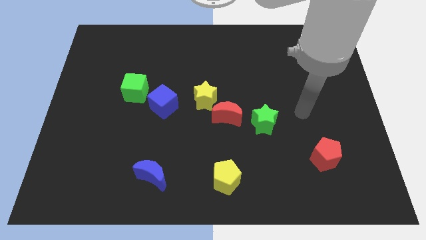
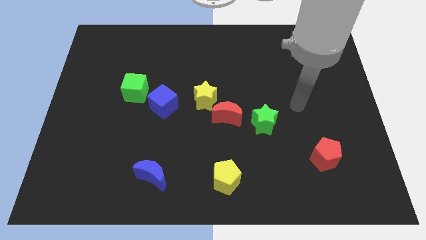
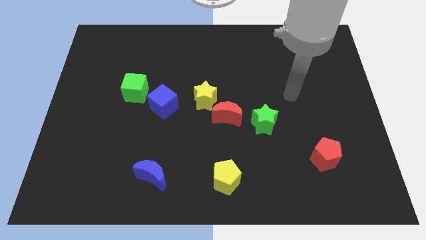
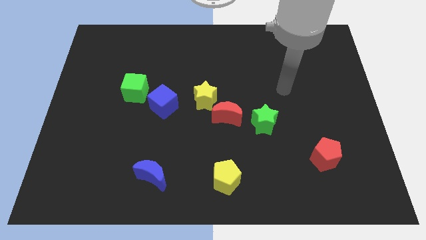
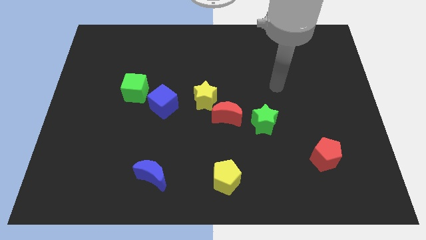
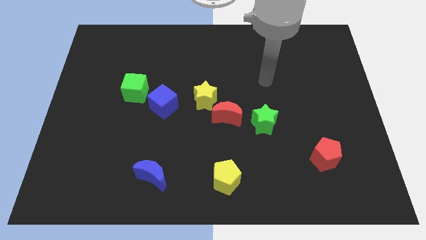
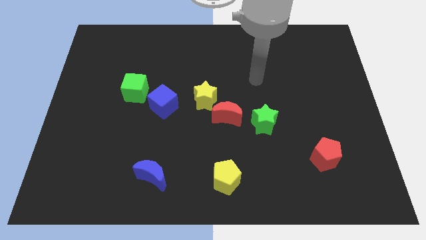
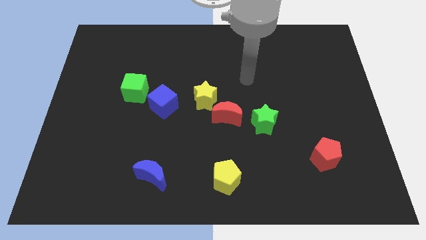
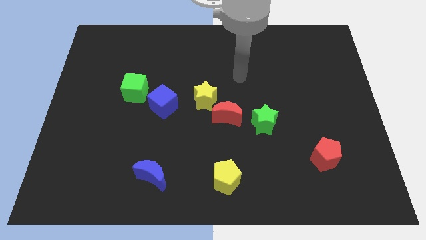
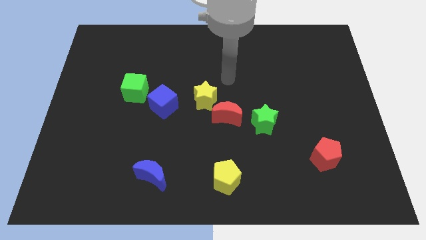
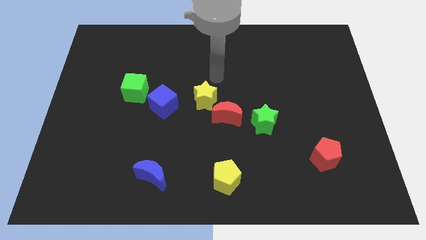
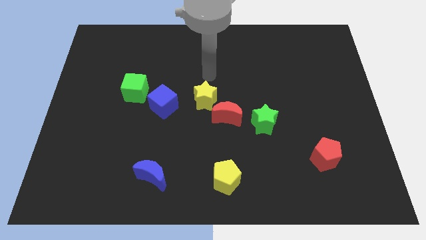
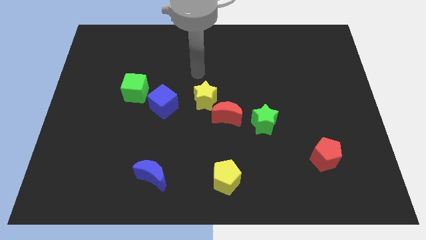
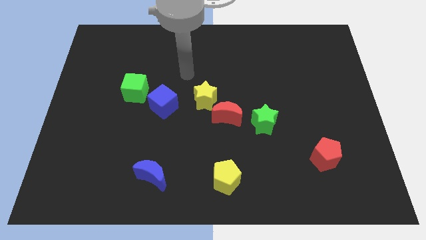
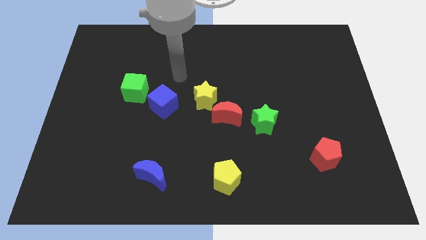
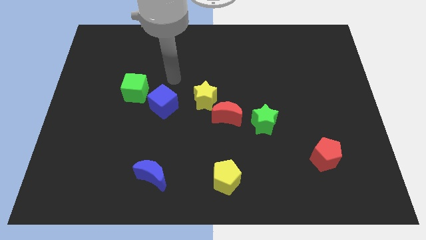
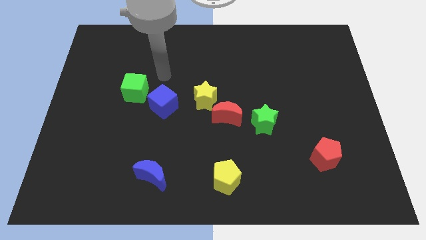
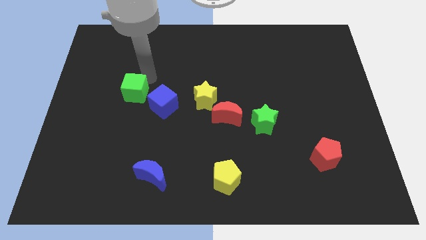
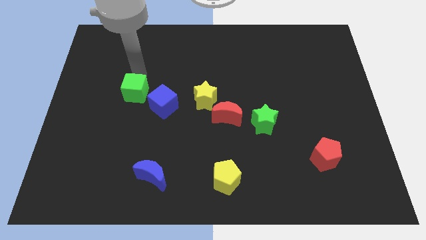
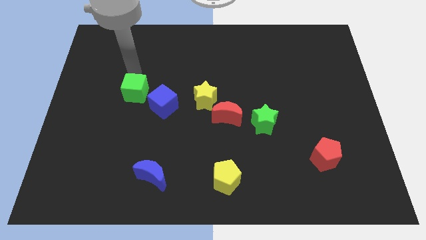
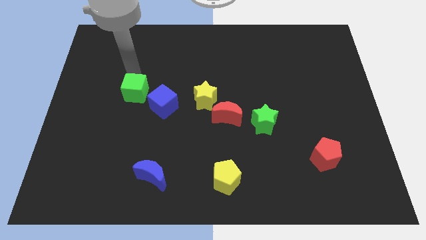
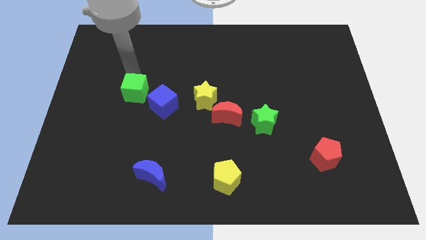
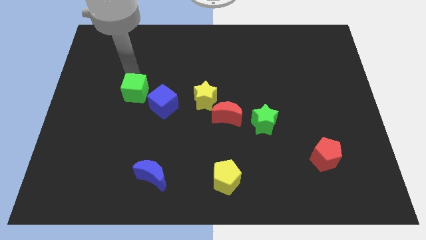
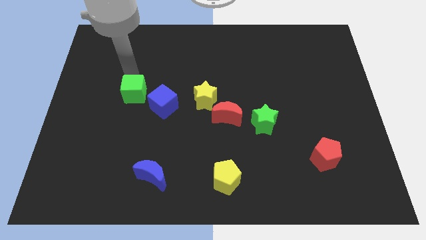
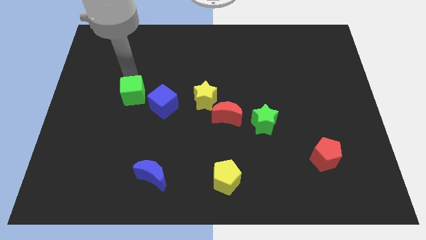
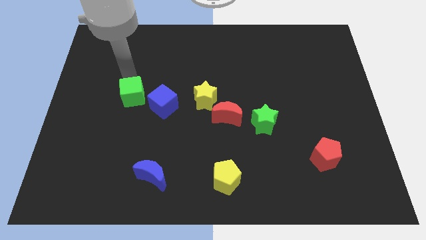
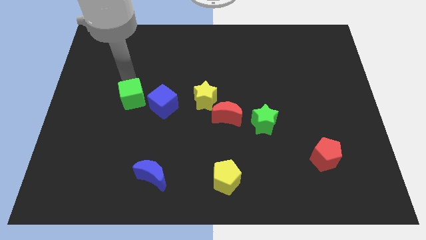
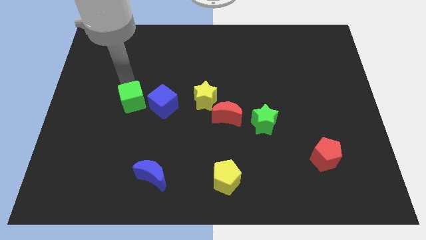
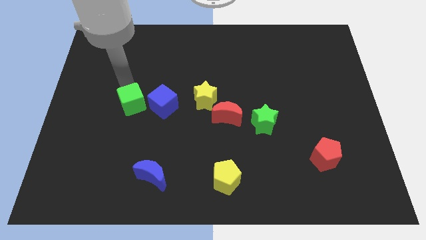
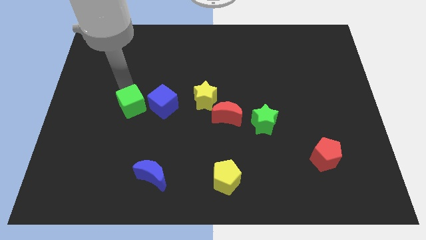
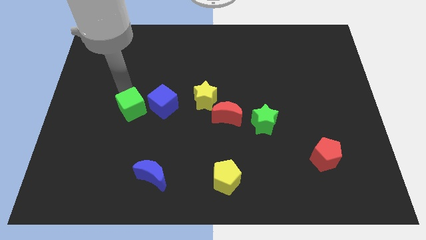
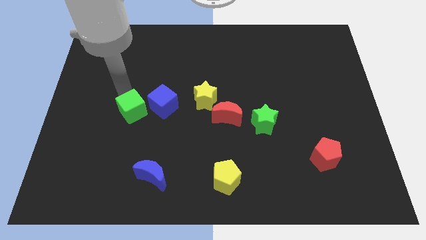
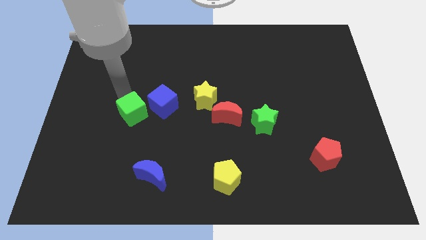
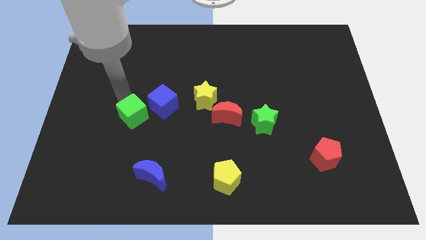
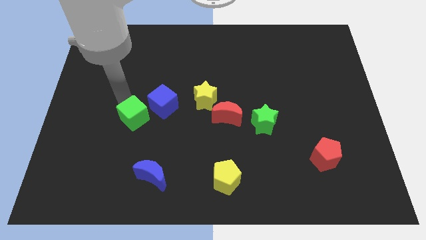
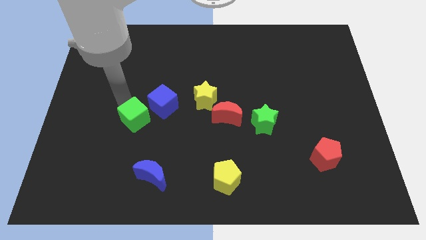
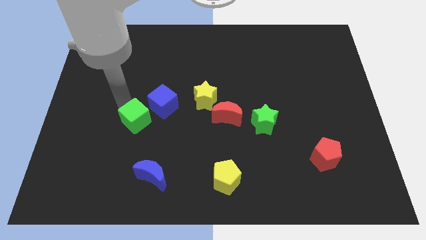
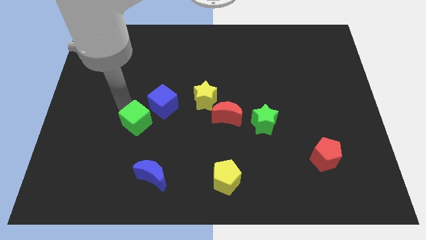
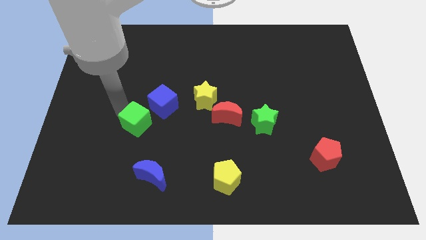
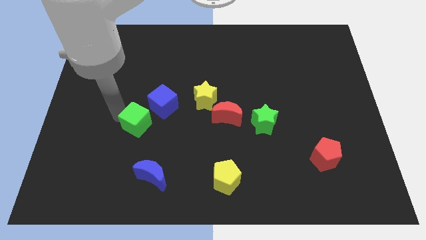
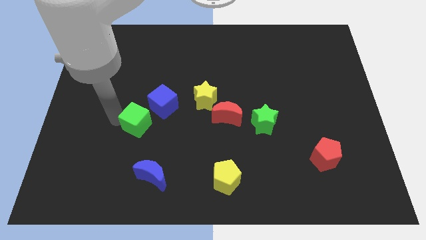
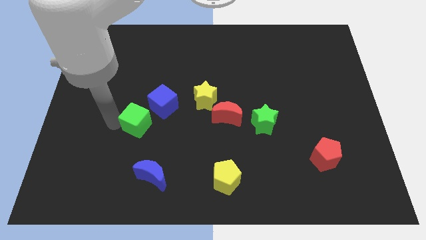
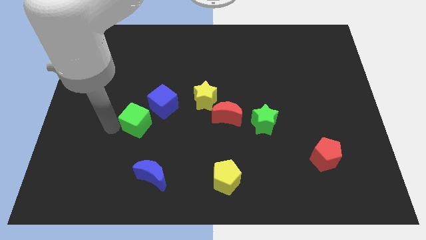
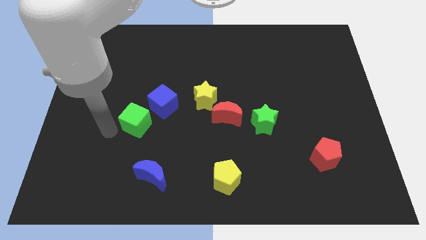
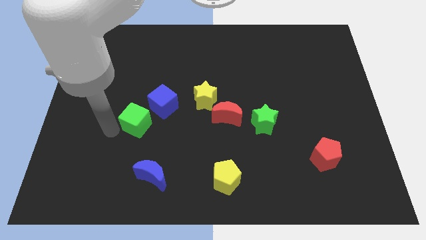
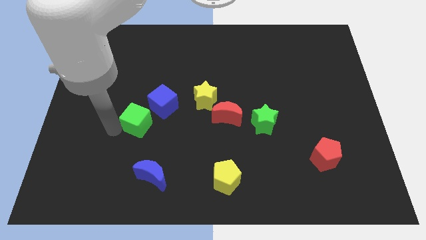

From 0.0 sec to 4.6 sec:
slide the green cube slightly diagonally down and right

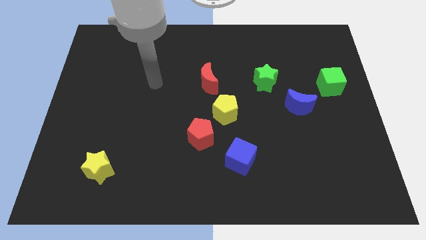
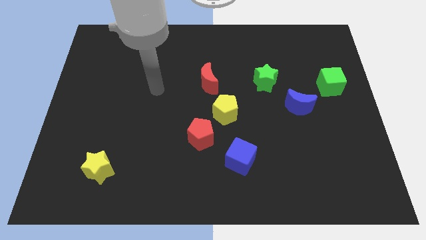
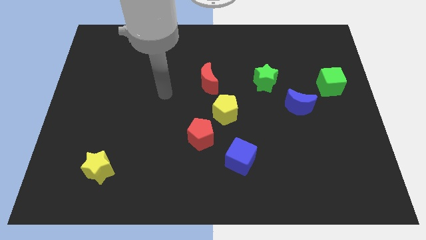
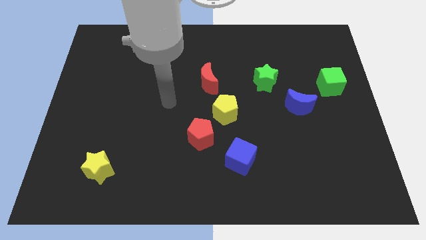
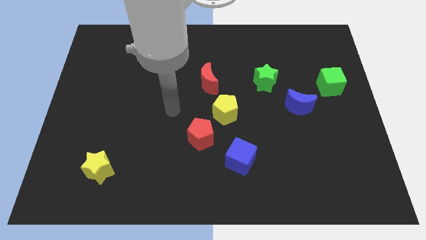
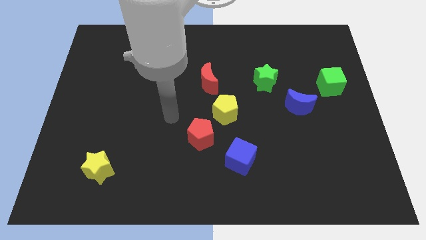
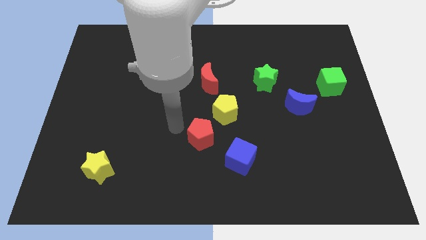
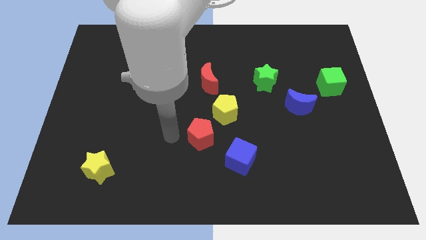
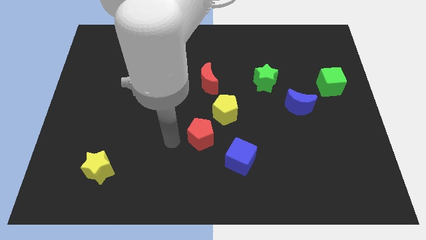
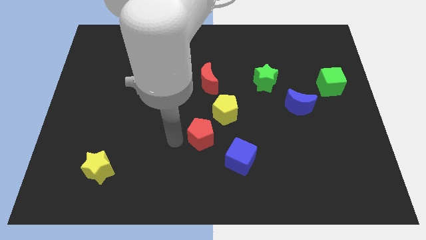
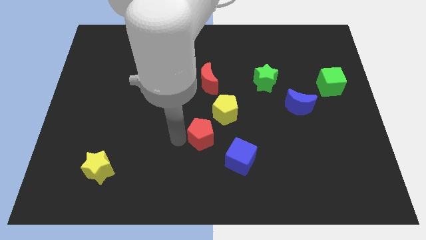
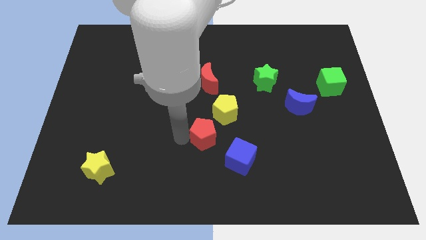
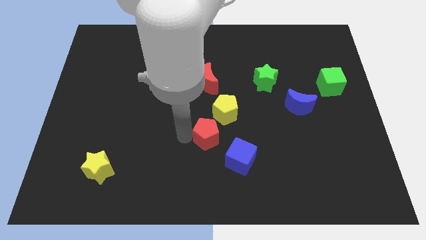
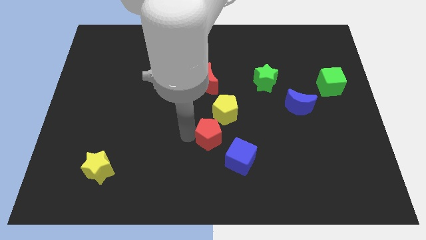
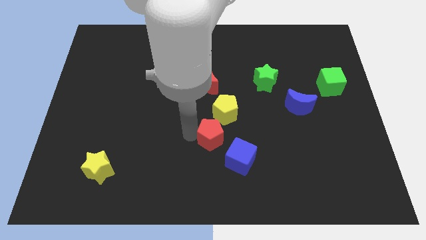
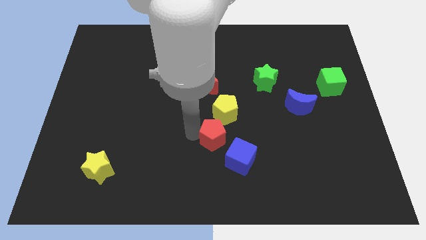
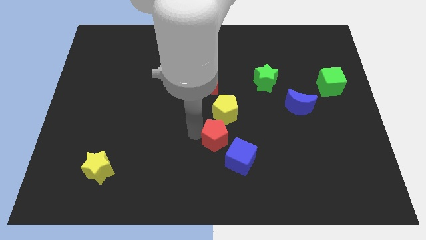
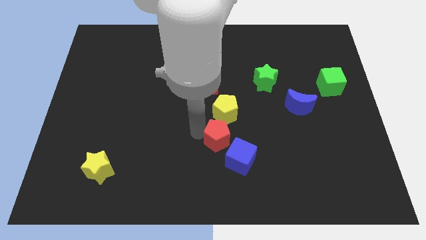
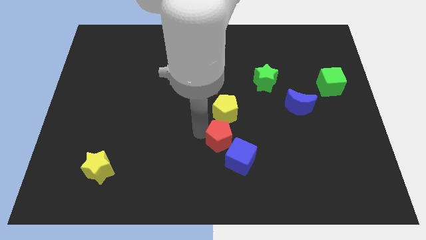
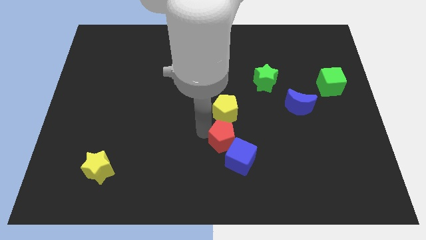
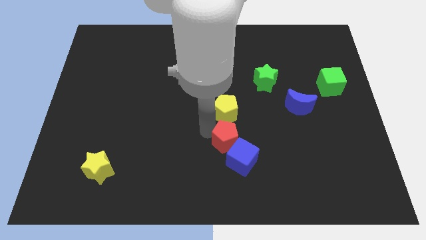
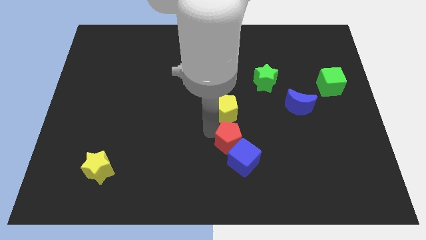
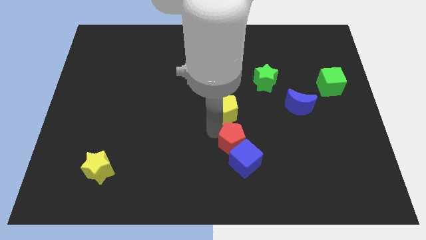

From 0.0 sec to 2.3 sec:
move the red pentagon somewhat right

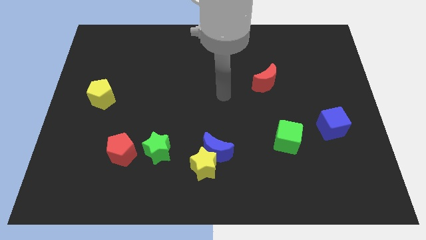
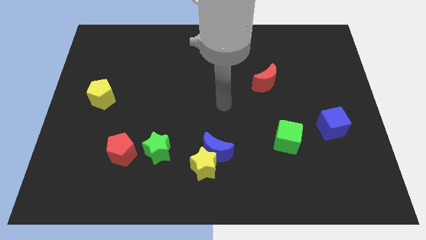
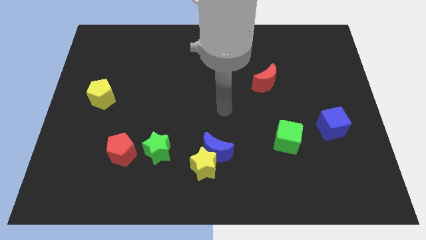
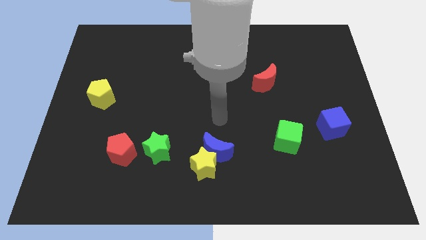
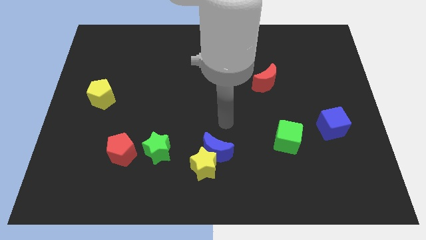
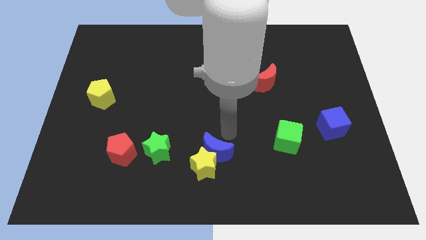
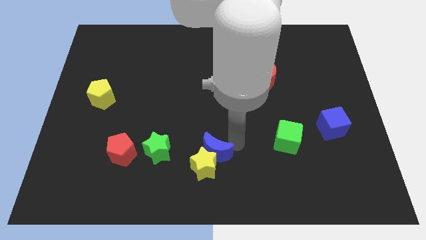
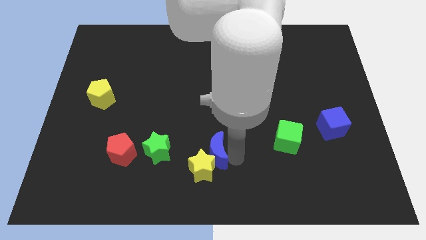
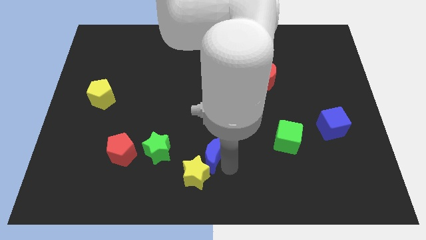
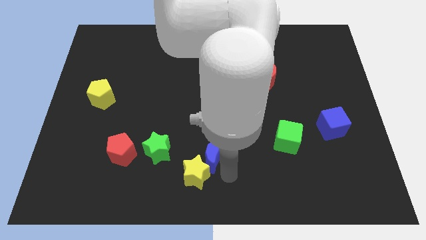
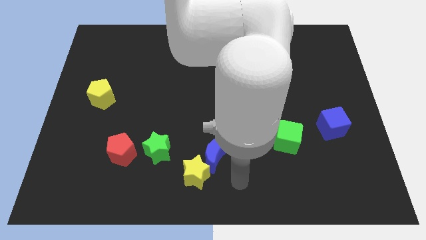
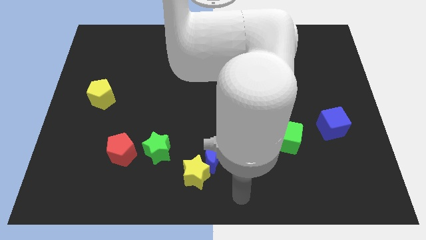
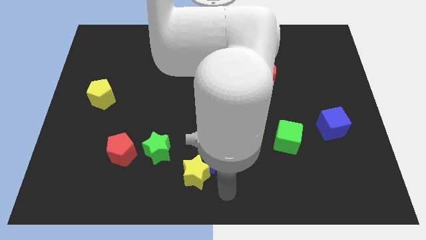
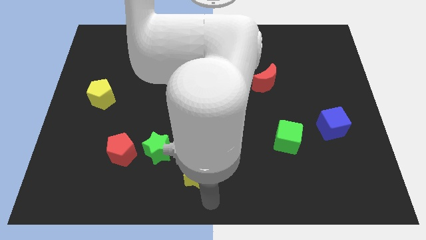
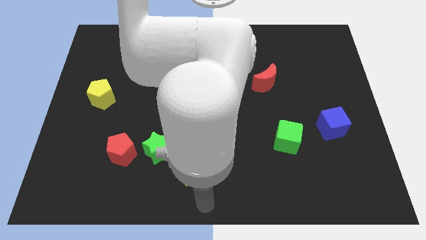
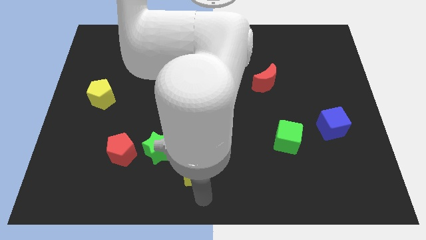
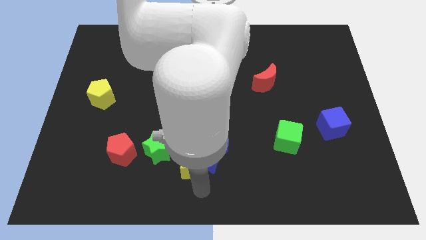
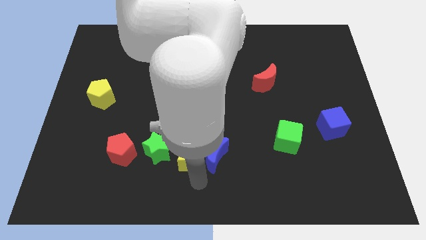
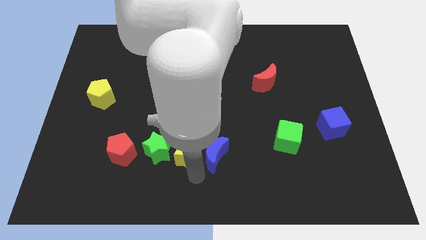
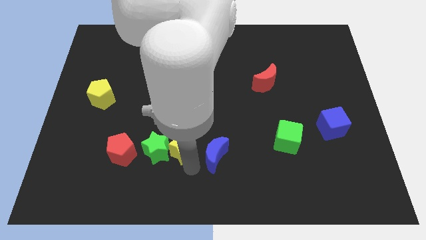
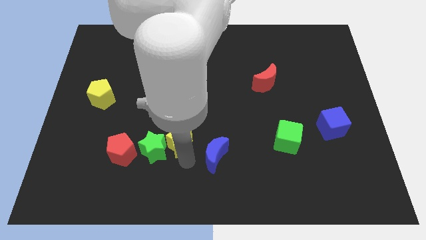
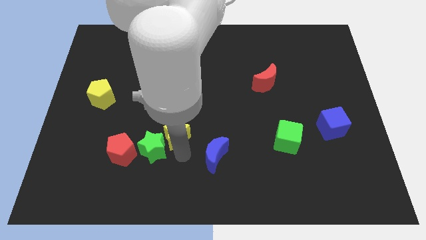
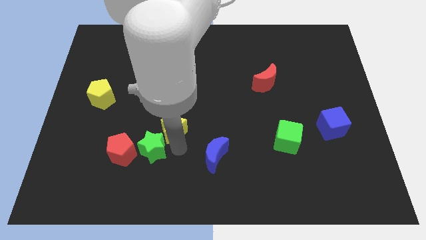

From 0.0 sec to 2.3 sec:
slightly move the yellow star up
